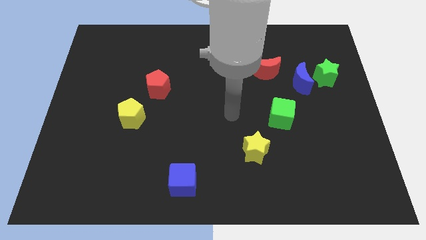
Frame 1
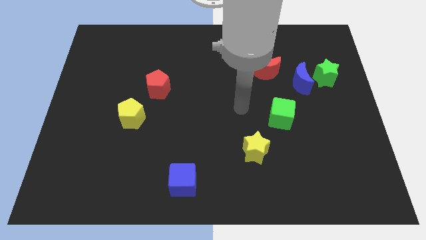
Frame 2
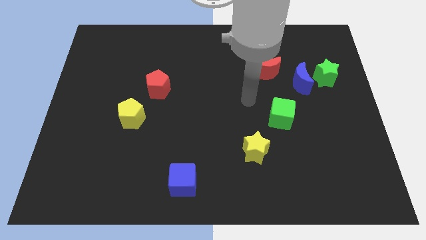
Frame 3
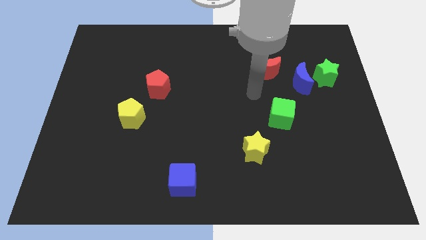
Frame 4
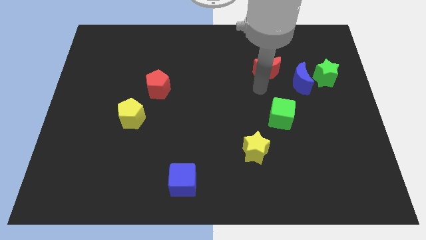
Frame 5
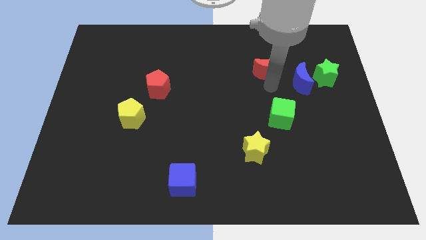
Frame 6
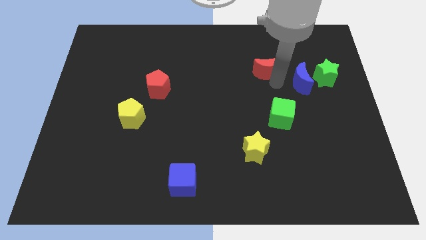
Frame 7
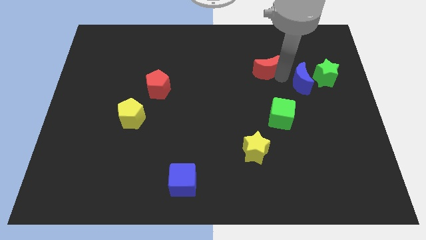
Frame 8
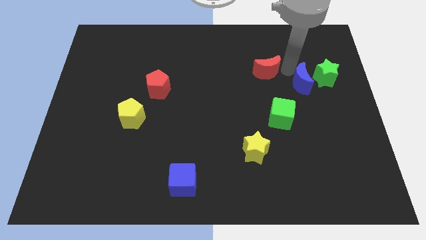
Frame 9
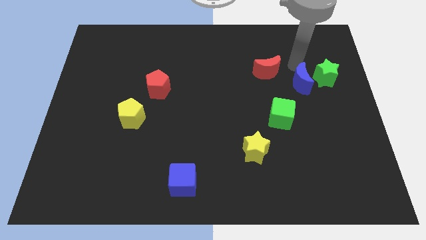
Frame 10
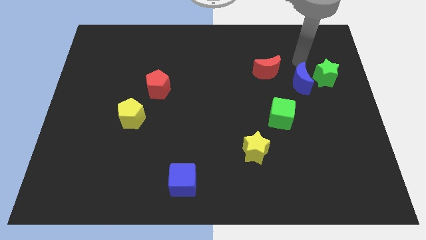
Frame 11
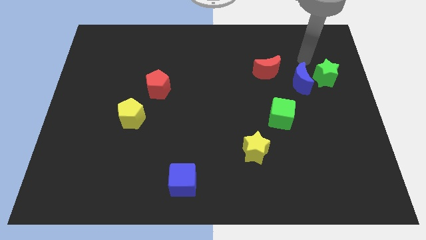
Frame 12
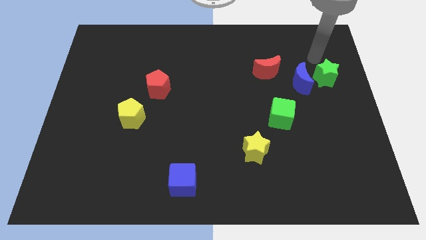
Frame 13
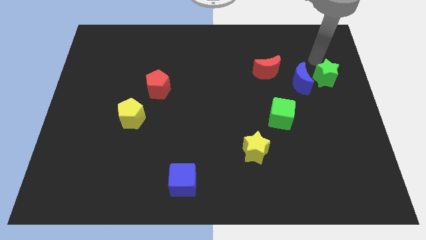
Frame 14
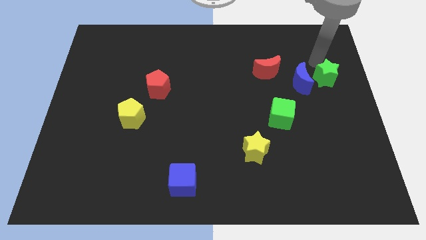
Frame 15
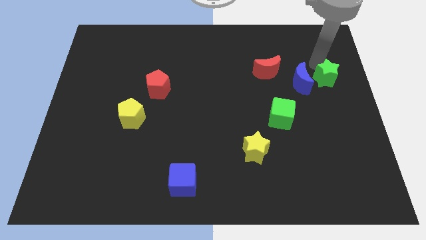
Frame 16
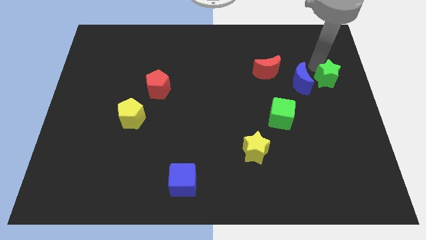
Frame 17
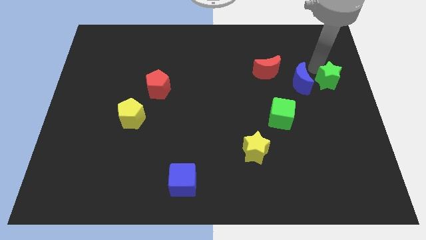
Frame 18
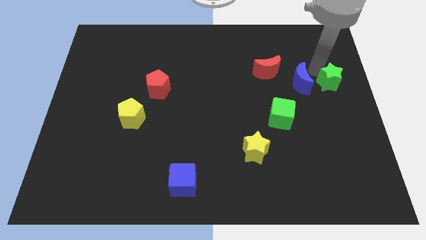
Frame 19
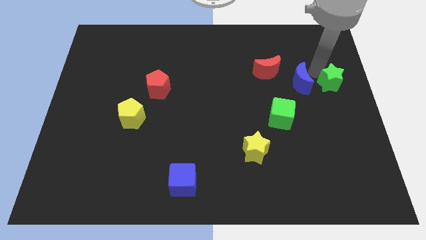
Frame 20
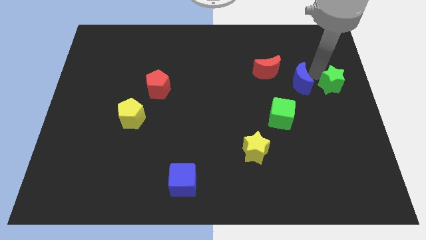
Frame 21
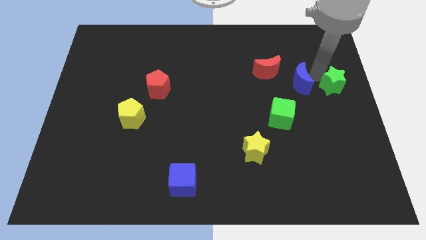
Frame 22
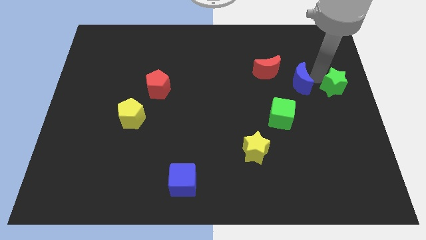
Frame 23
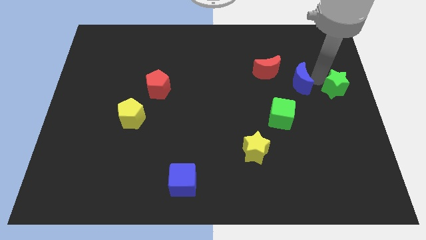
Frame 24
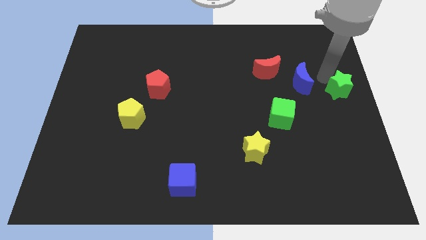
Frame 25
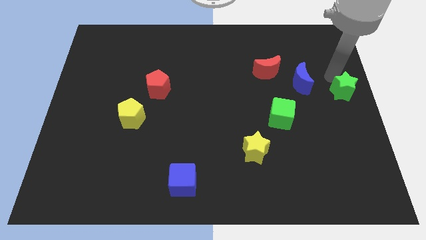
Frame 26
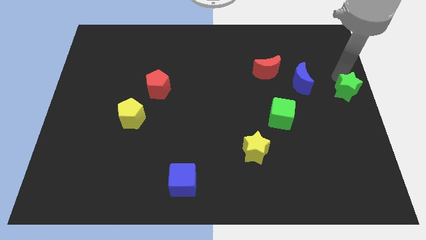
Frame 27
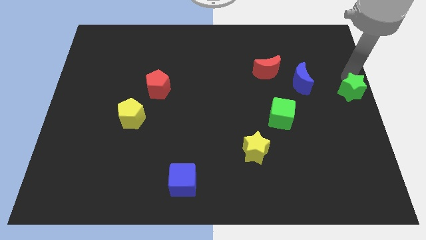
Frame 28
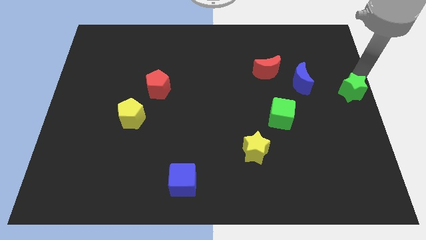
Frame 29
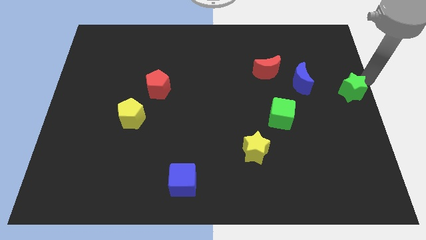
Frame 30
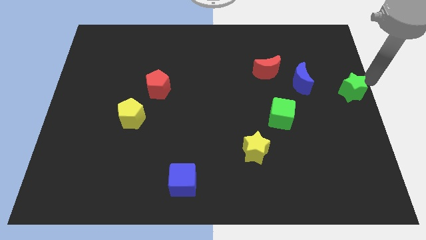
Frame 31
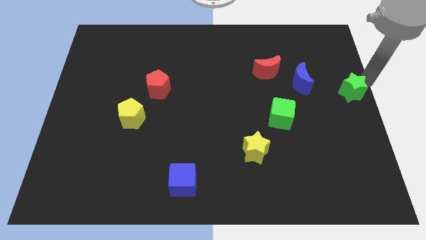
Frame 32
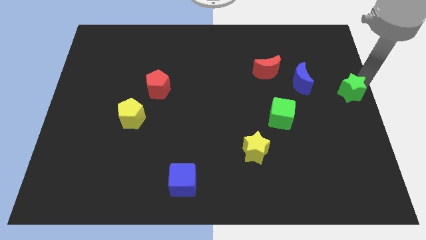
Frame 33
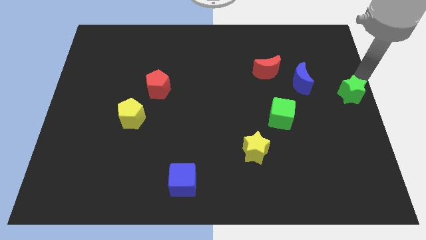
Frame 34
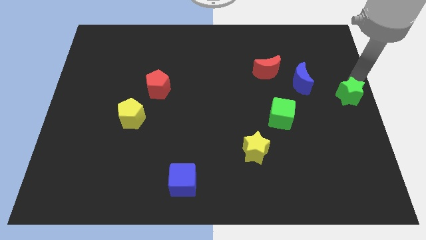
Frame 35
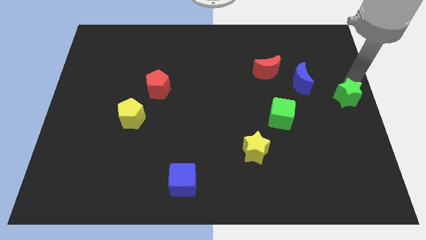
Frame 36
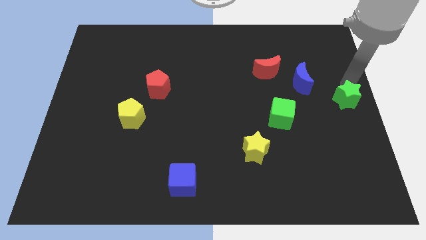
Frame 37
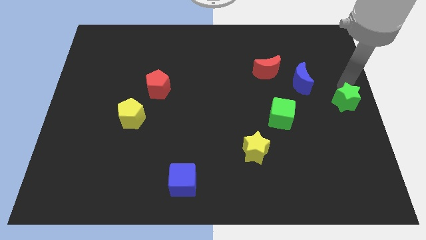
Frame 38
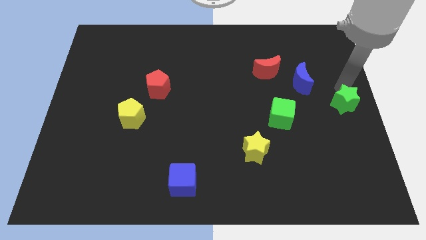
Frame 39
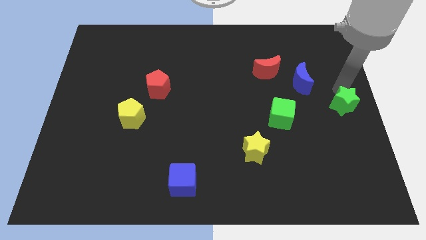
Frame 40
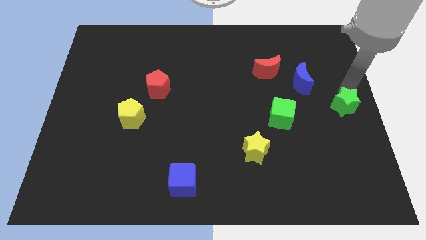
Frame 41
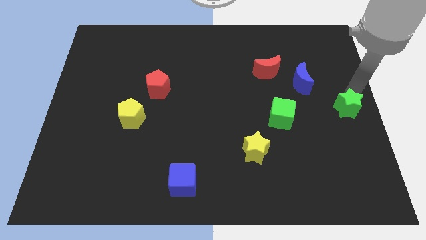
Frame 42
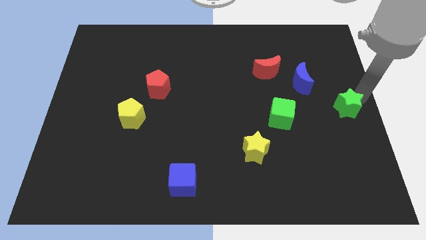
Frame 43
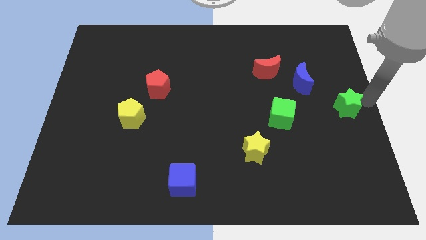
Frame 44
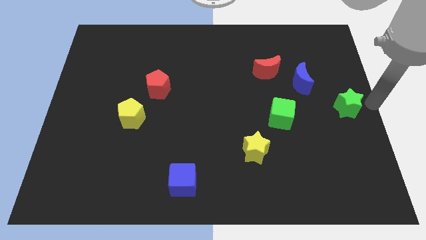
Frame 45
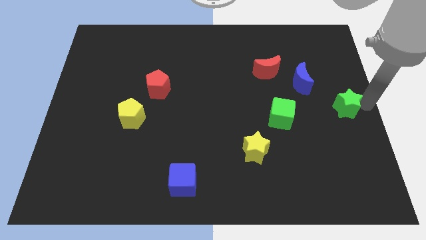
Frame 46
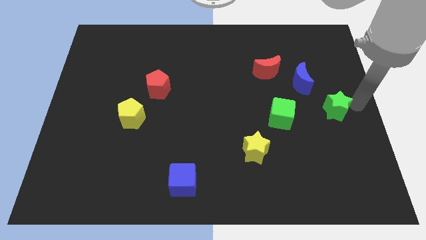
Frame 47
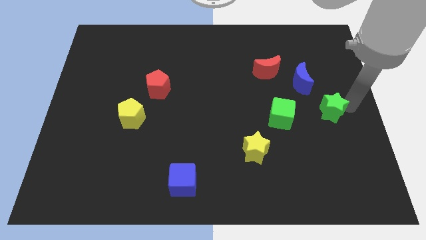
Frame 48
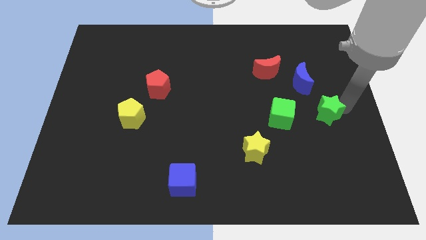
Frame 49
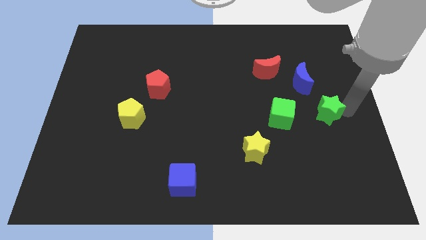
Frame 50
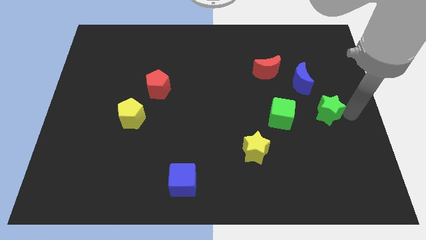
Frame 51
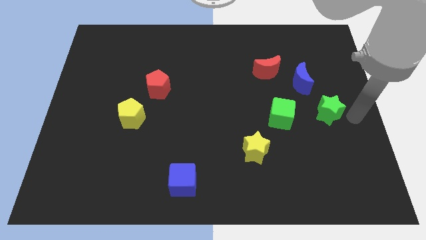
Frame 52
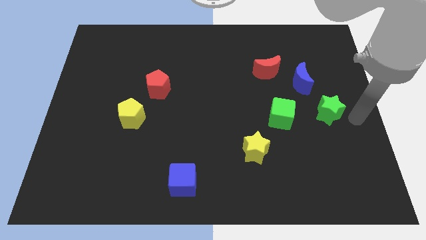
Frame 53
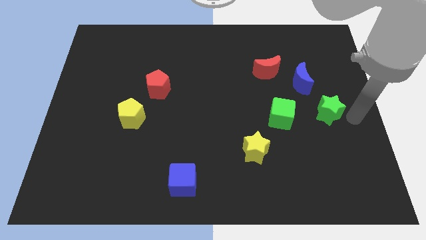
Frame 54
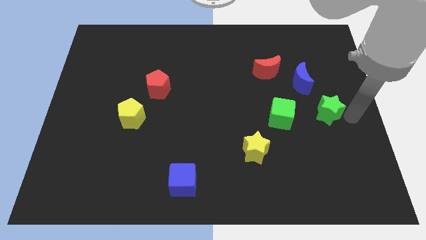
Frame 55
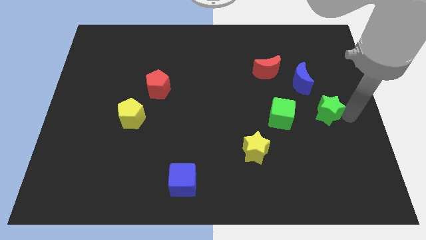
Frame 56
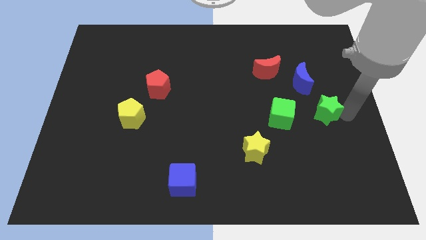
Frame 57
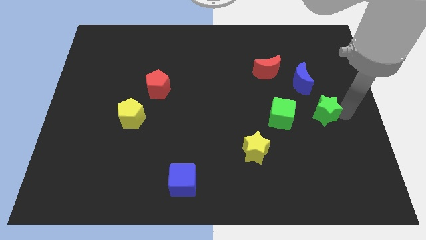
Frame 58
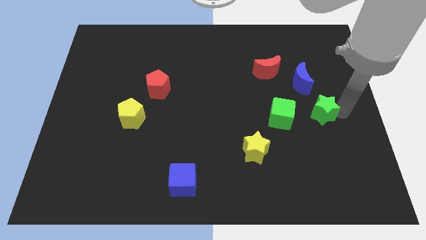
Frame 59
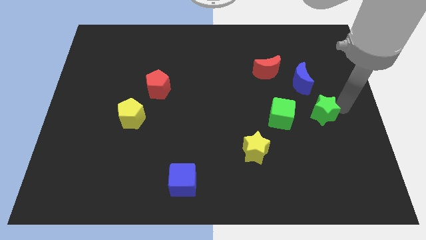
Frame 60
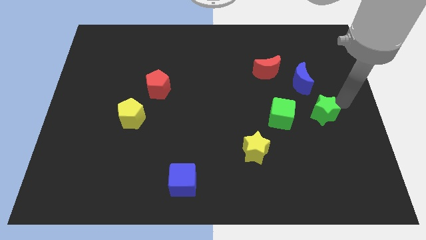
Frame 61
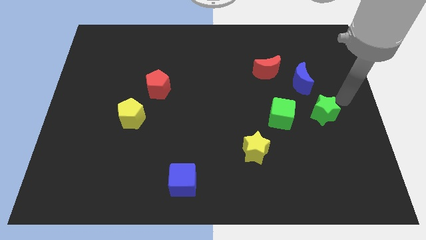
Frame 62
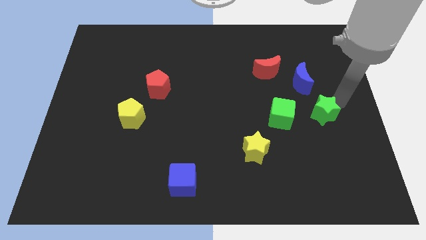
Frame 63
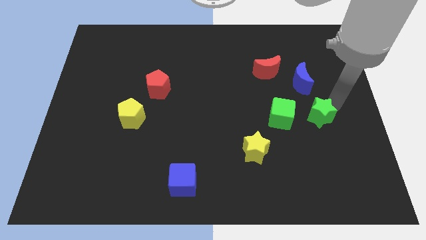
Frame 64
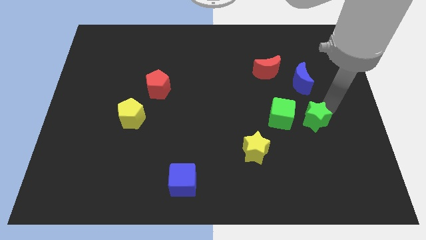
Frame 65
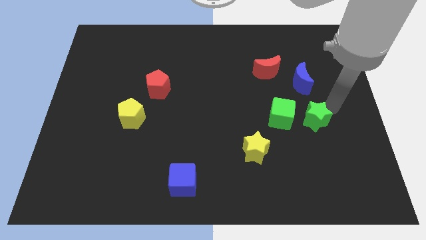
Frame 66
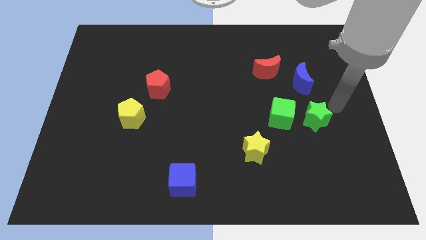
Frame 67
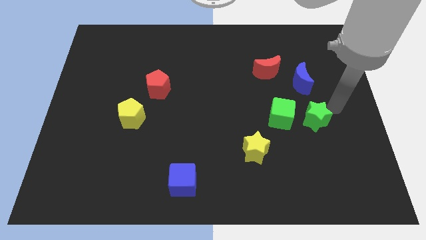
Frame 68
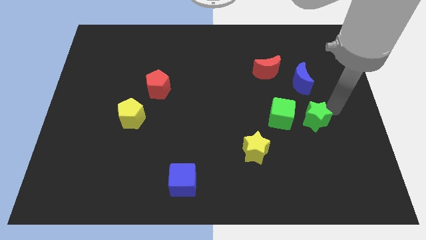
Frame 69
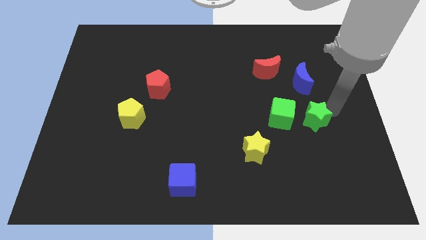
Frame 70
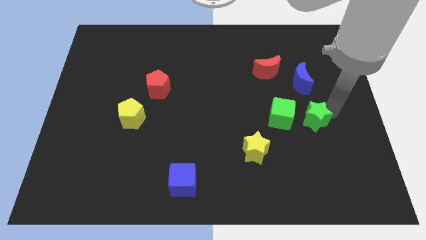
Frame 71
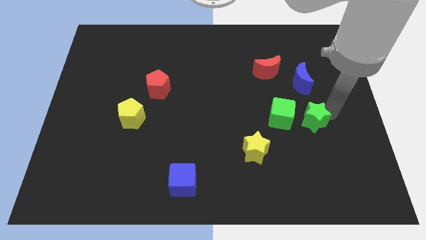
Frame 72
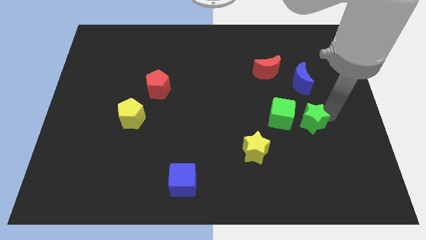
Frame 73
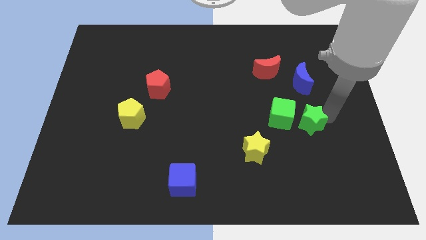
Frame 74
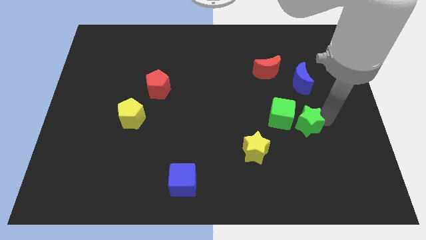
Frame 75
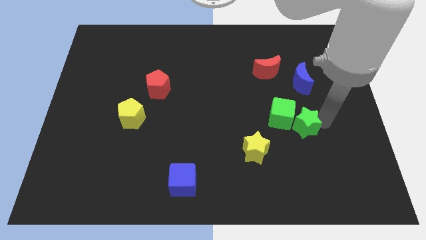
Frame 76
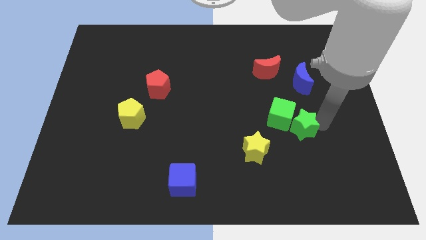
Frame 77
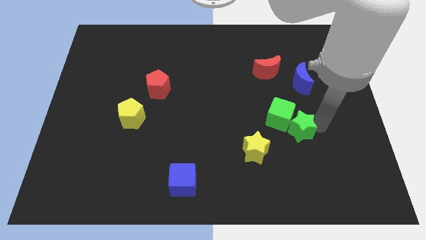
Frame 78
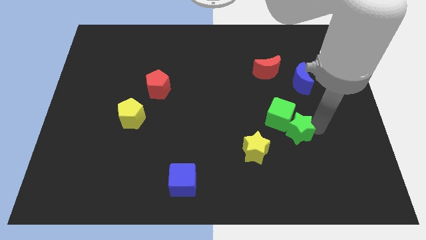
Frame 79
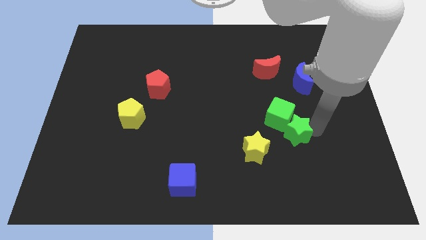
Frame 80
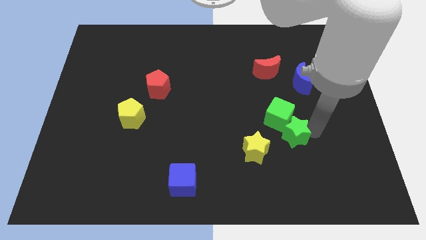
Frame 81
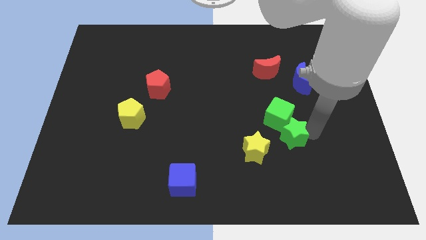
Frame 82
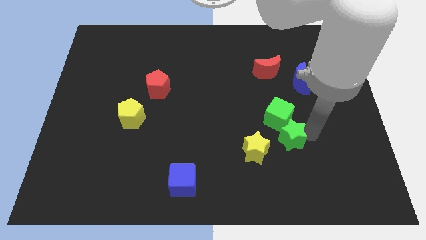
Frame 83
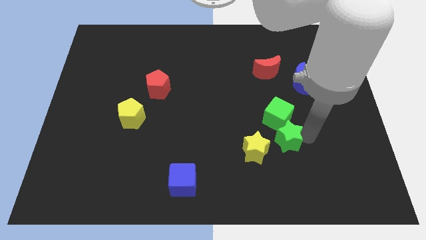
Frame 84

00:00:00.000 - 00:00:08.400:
push the green star down and to the left diagonally
